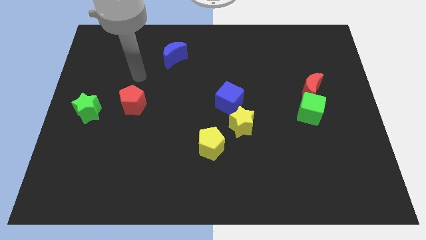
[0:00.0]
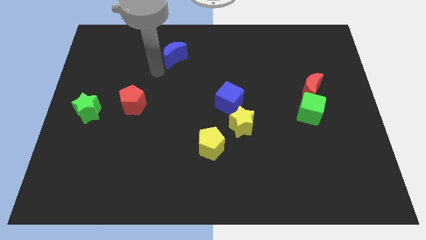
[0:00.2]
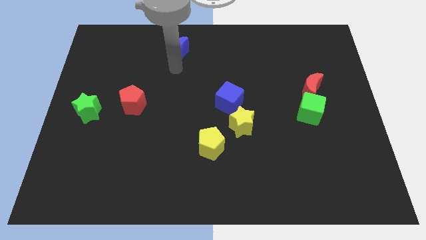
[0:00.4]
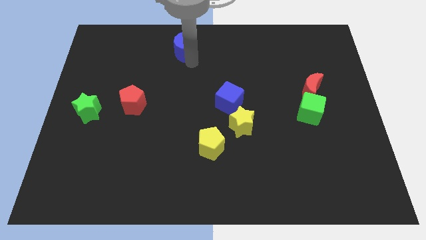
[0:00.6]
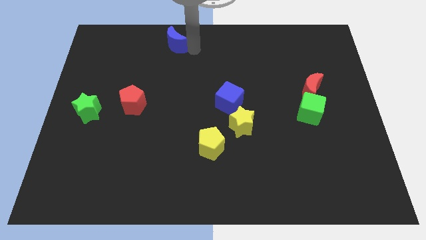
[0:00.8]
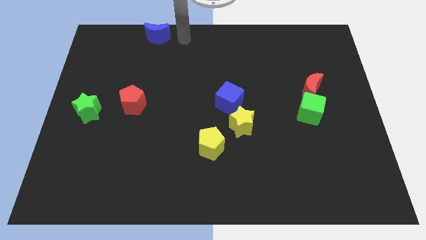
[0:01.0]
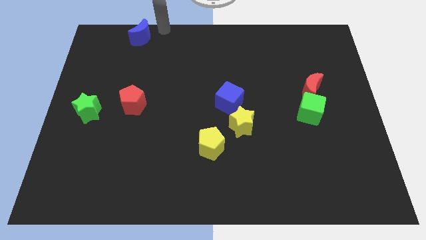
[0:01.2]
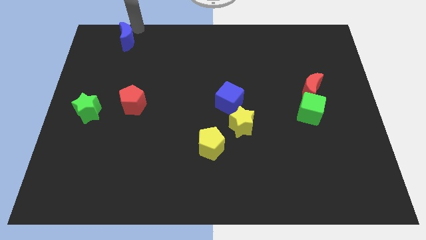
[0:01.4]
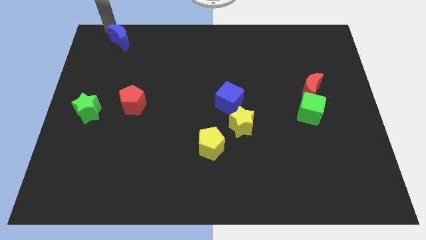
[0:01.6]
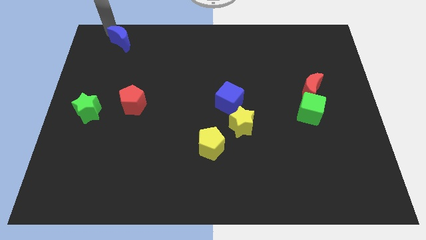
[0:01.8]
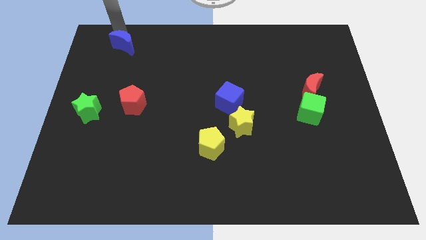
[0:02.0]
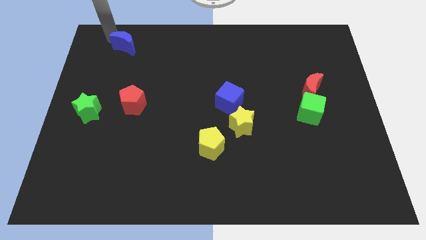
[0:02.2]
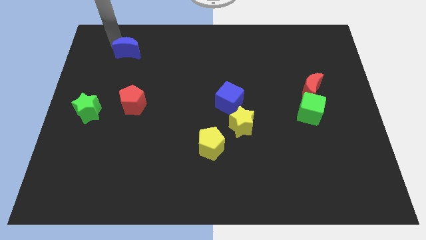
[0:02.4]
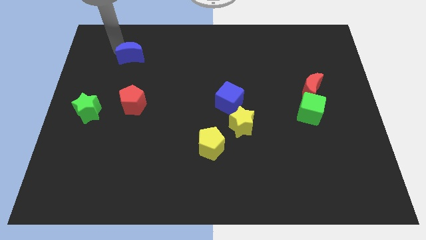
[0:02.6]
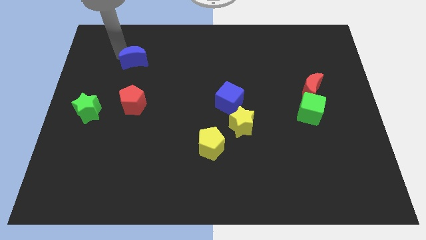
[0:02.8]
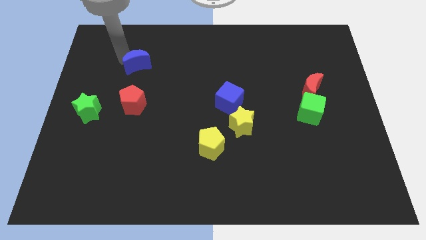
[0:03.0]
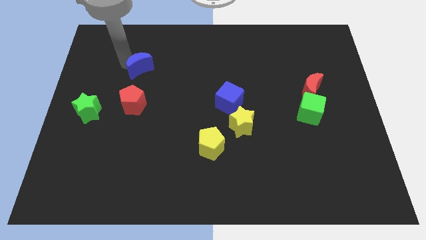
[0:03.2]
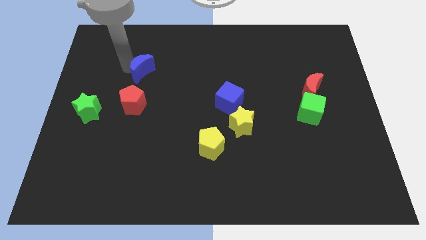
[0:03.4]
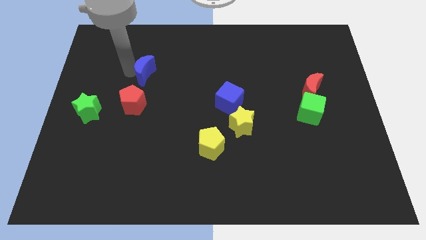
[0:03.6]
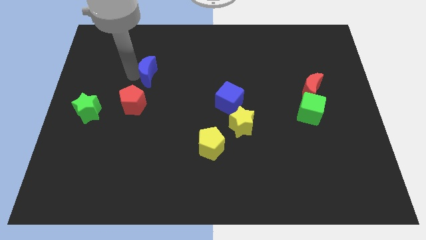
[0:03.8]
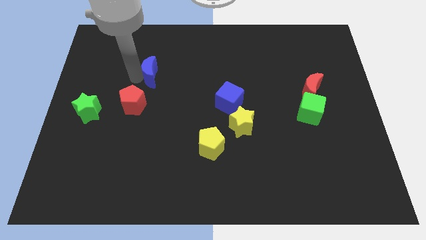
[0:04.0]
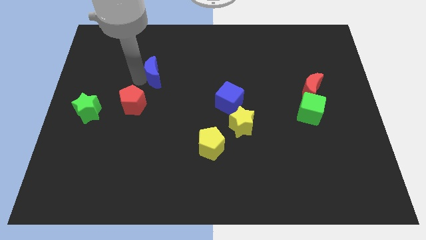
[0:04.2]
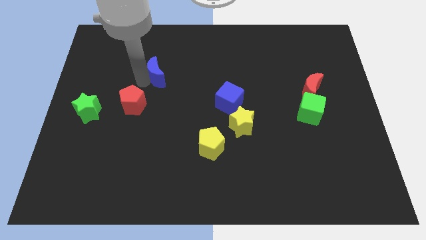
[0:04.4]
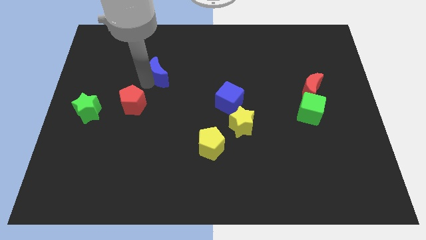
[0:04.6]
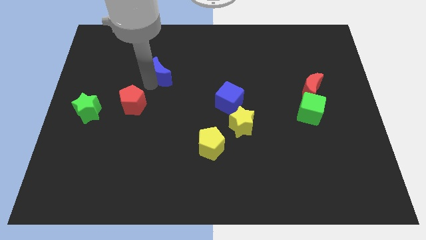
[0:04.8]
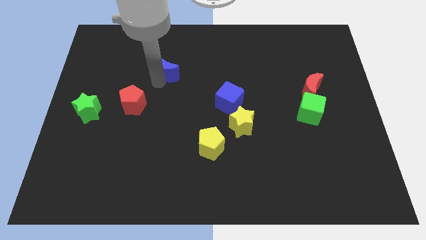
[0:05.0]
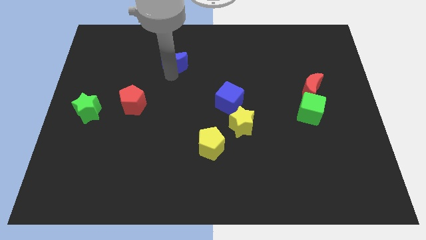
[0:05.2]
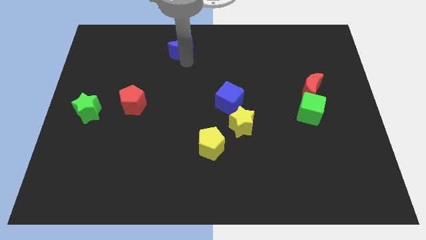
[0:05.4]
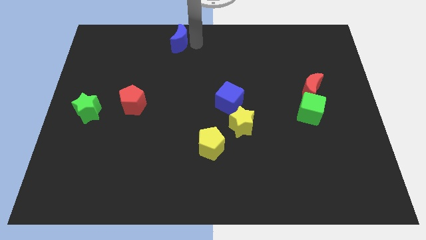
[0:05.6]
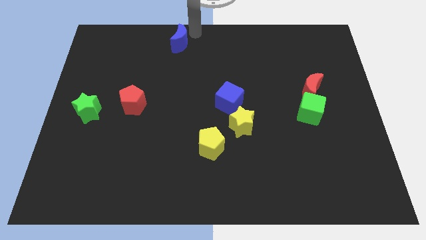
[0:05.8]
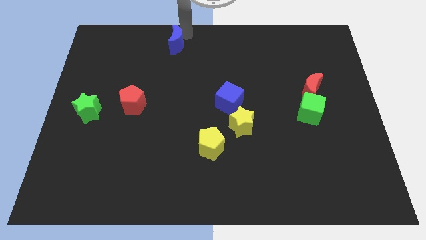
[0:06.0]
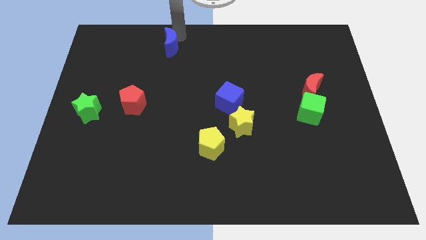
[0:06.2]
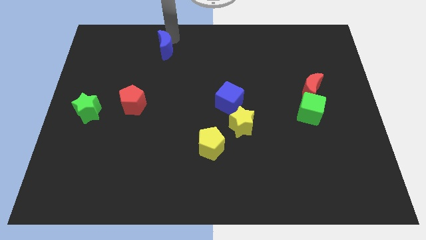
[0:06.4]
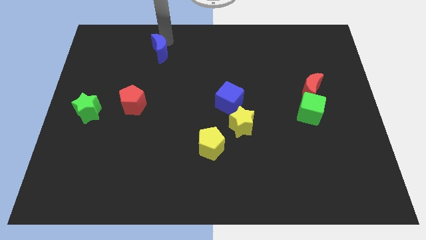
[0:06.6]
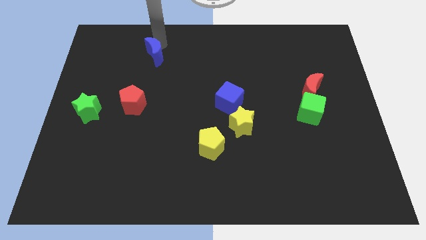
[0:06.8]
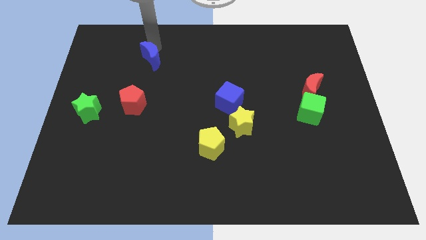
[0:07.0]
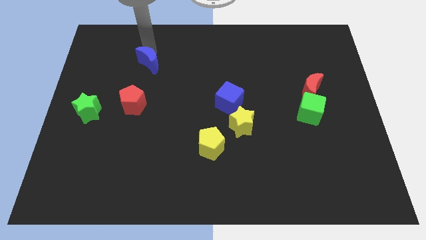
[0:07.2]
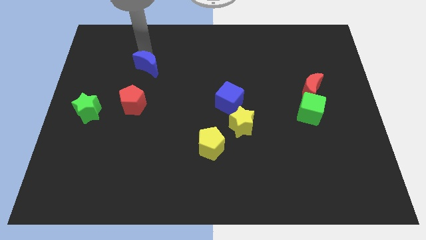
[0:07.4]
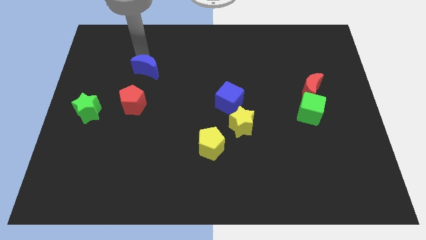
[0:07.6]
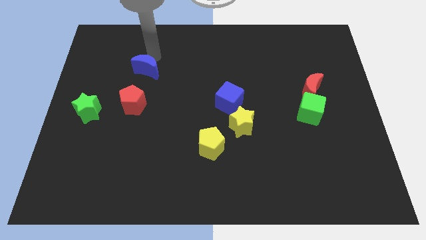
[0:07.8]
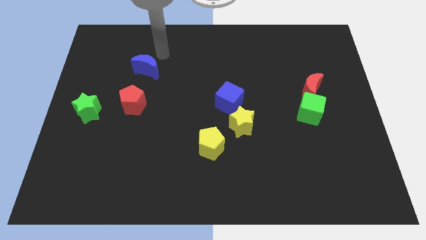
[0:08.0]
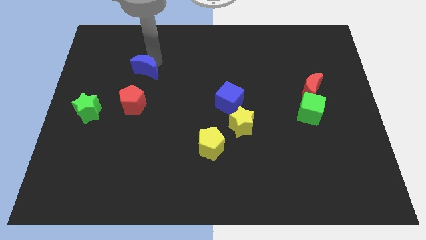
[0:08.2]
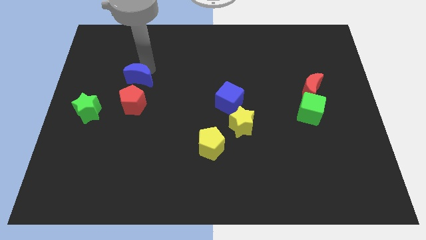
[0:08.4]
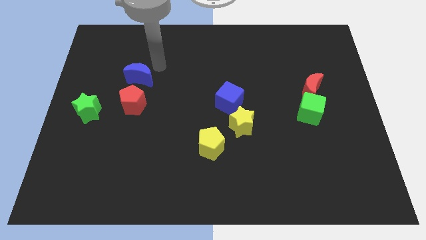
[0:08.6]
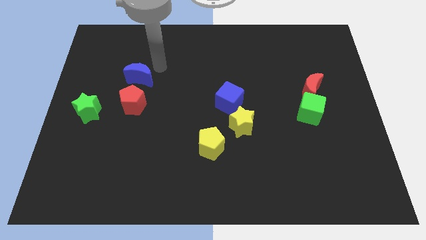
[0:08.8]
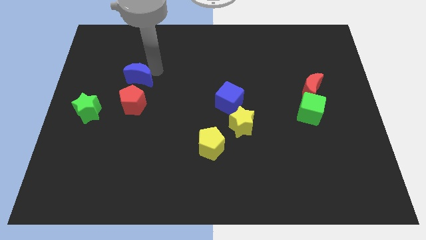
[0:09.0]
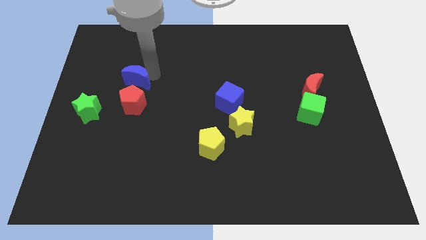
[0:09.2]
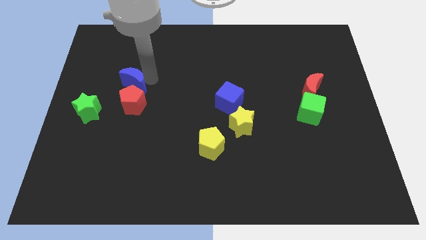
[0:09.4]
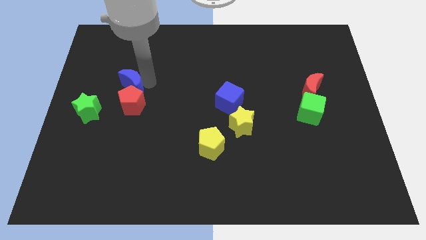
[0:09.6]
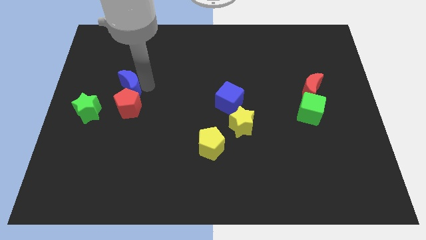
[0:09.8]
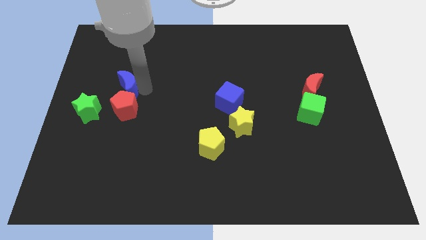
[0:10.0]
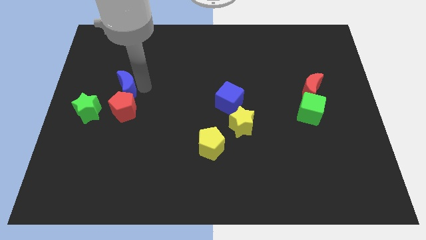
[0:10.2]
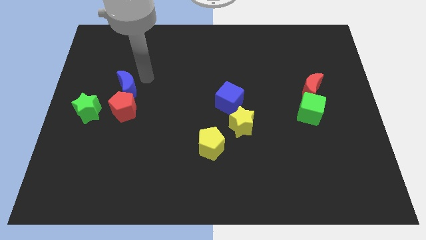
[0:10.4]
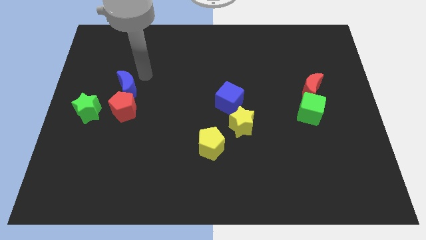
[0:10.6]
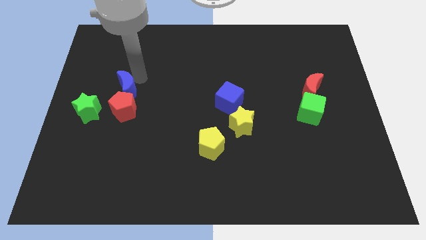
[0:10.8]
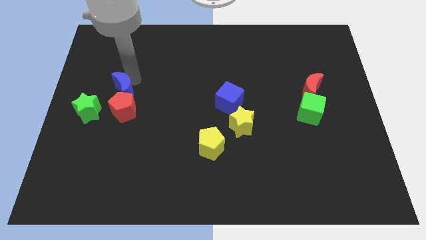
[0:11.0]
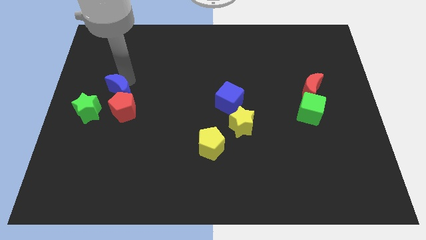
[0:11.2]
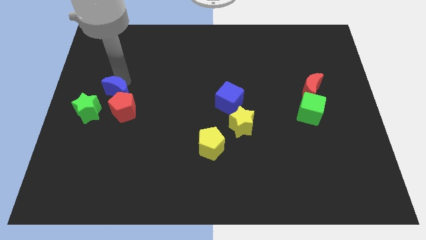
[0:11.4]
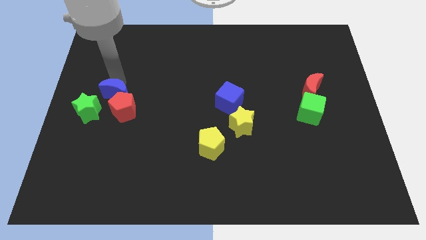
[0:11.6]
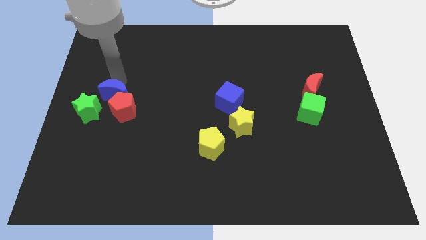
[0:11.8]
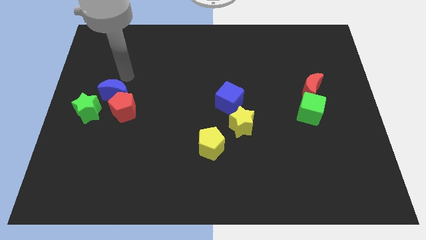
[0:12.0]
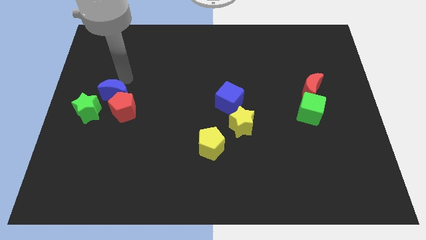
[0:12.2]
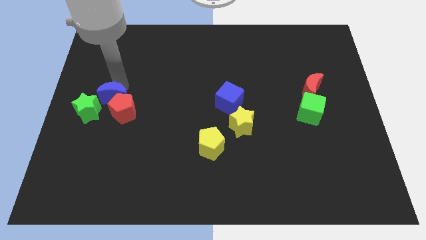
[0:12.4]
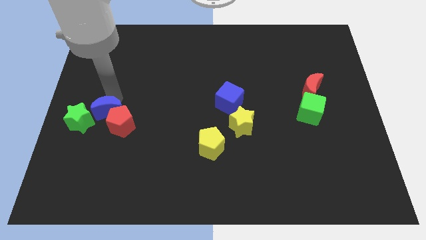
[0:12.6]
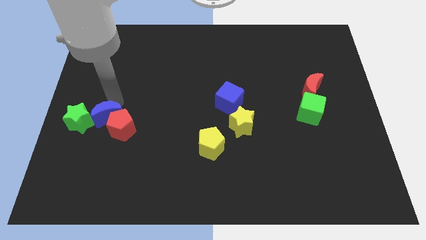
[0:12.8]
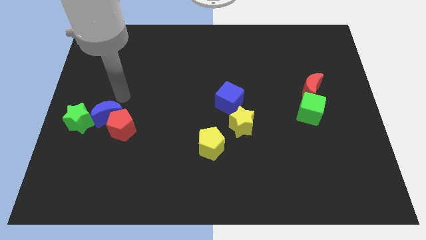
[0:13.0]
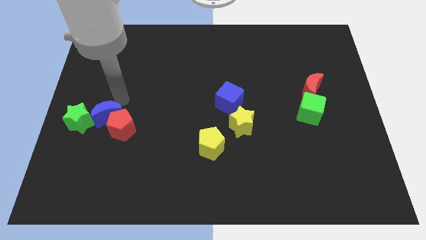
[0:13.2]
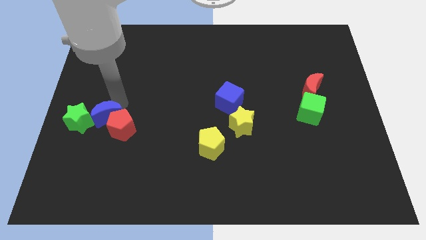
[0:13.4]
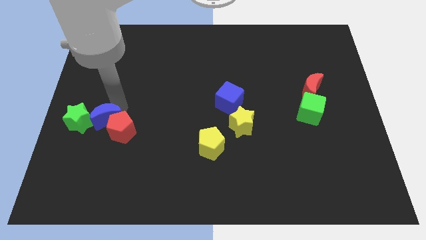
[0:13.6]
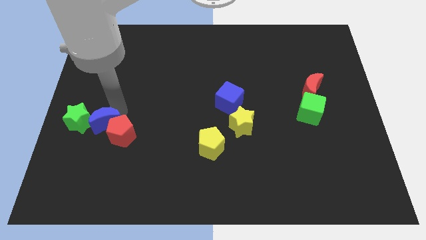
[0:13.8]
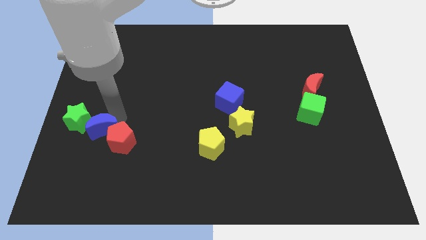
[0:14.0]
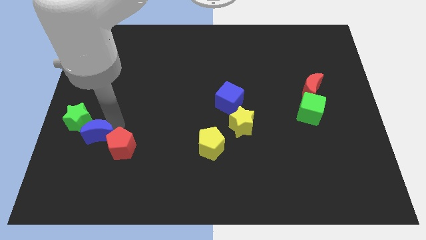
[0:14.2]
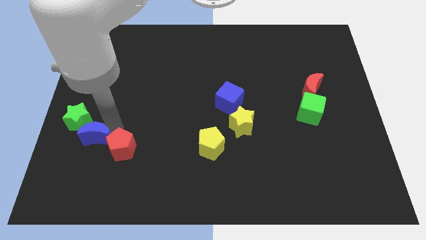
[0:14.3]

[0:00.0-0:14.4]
move the blue moon to the bottom of the green star
